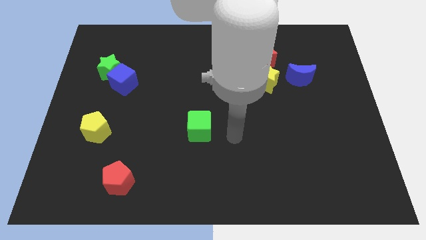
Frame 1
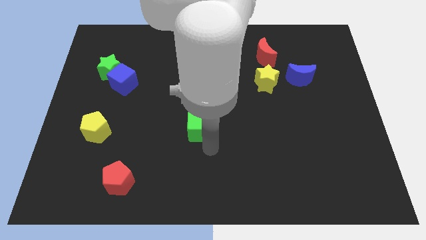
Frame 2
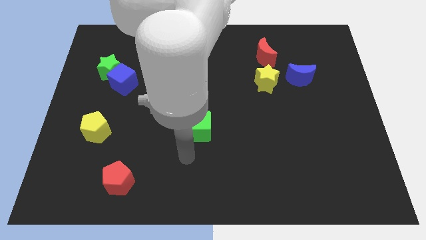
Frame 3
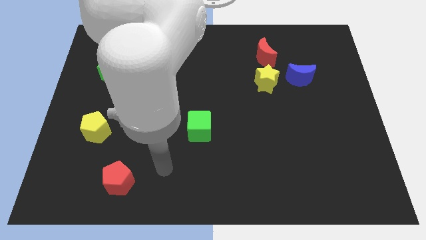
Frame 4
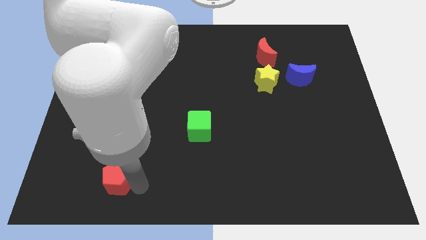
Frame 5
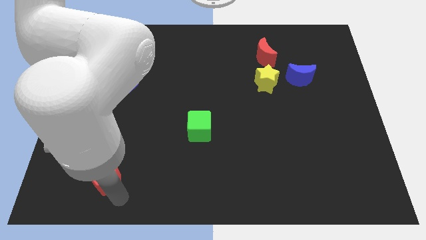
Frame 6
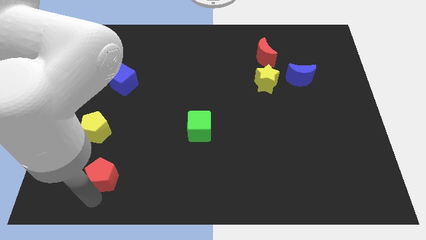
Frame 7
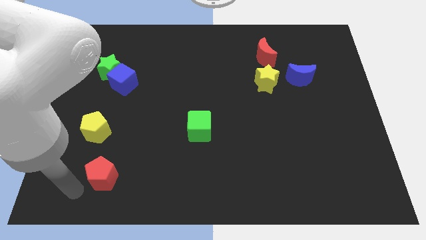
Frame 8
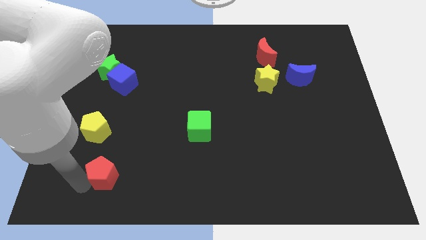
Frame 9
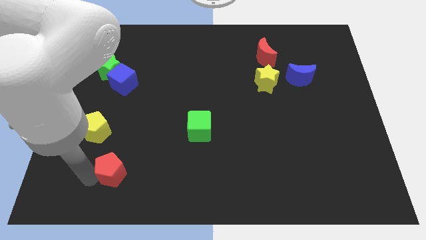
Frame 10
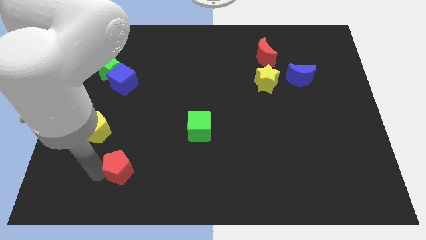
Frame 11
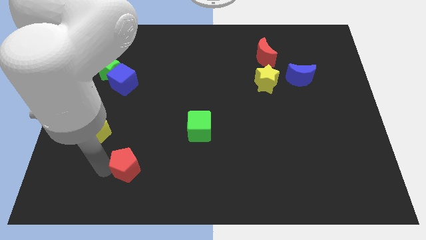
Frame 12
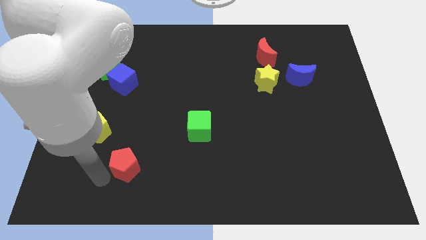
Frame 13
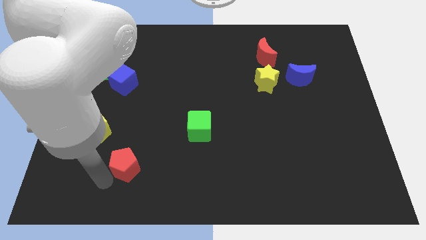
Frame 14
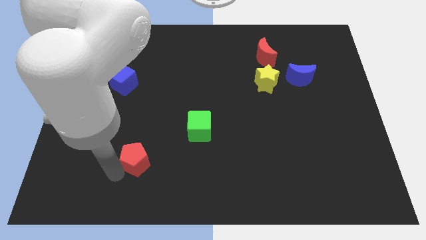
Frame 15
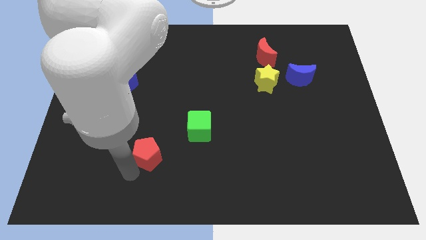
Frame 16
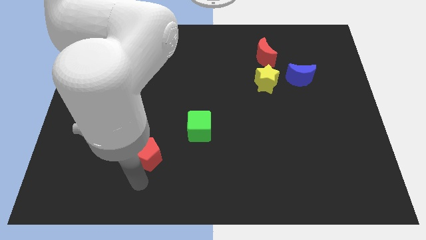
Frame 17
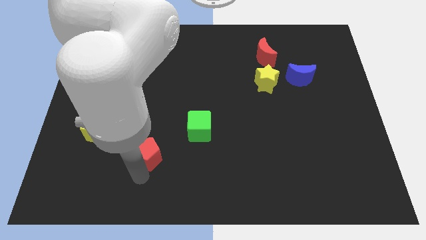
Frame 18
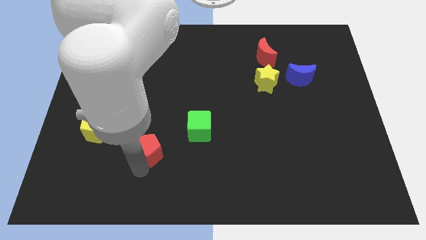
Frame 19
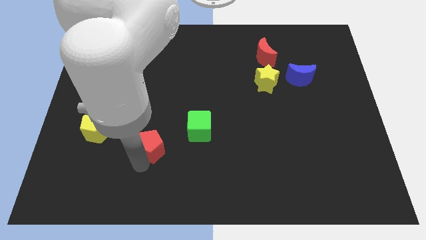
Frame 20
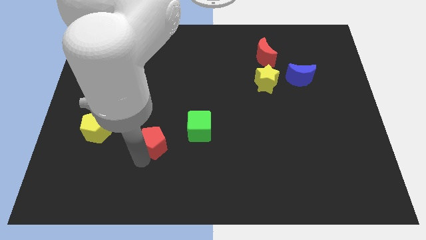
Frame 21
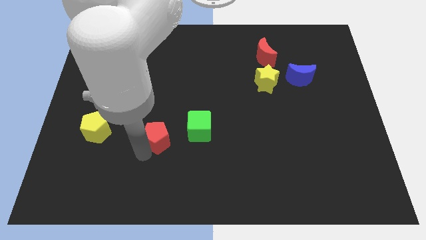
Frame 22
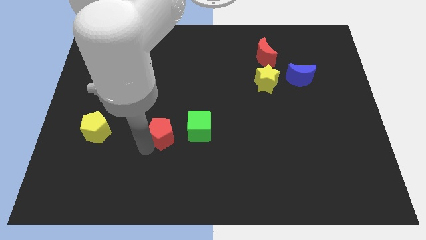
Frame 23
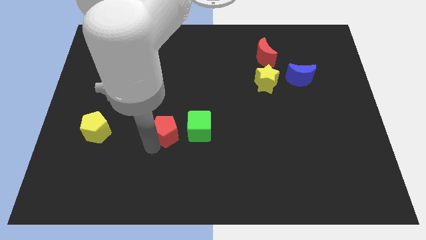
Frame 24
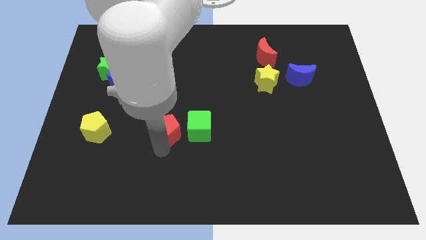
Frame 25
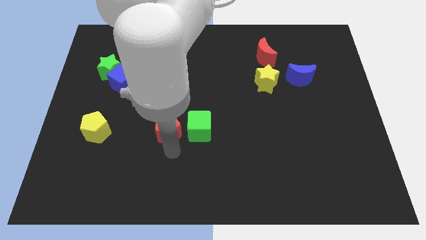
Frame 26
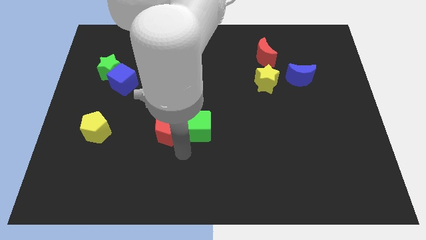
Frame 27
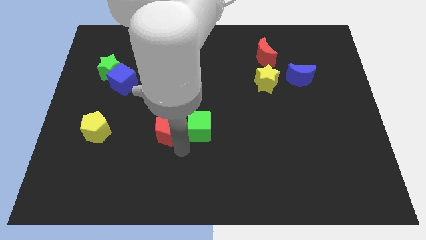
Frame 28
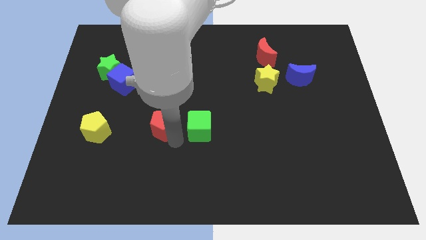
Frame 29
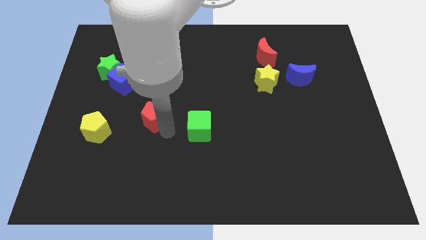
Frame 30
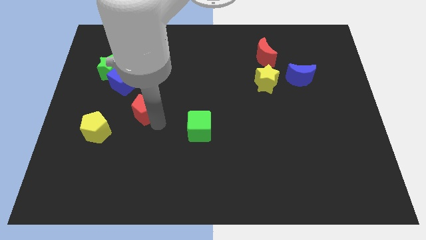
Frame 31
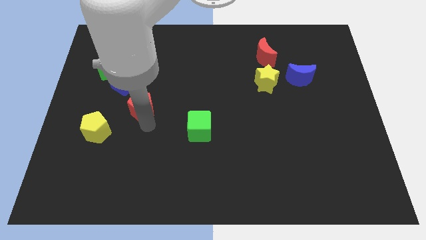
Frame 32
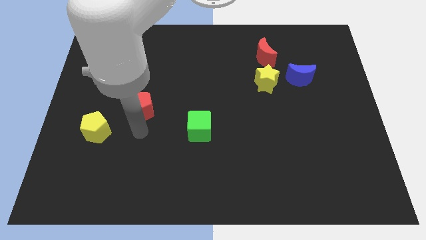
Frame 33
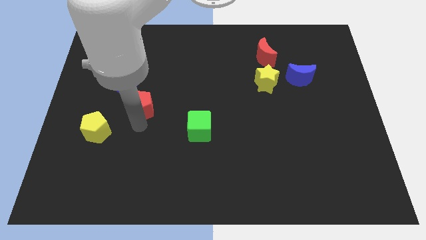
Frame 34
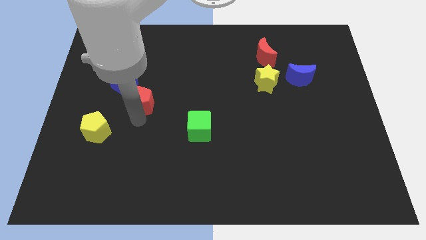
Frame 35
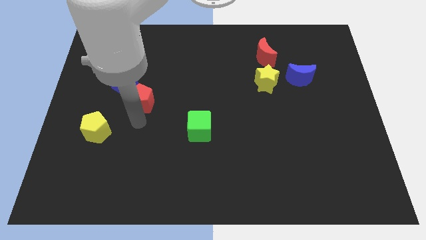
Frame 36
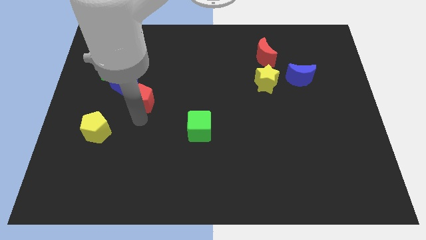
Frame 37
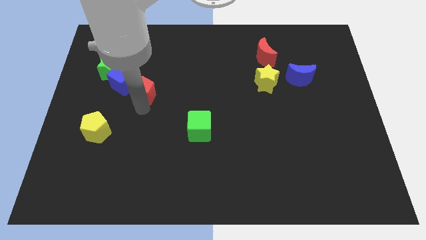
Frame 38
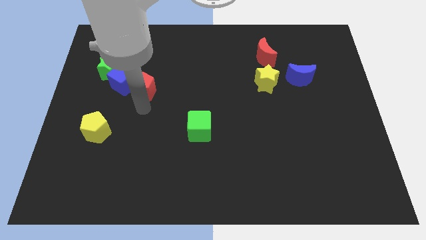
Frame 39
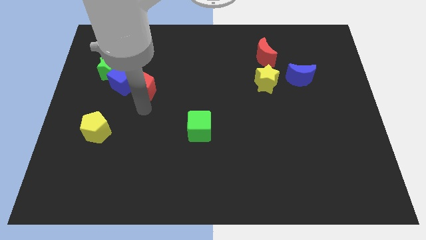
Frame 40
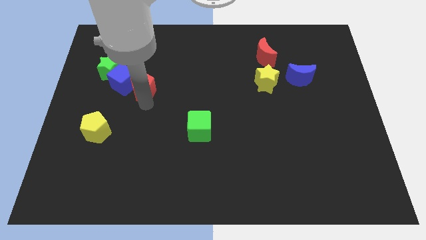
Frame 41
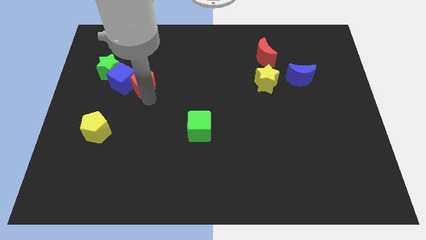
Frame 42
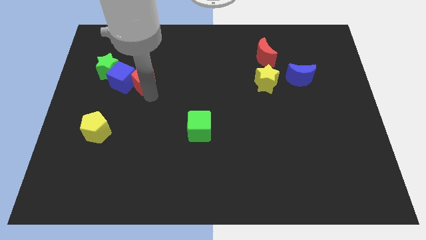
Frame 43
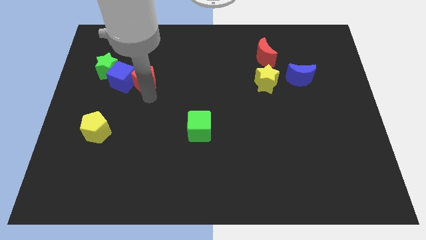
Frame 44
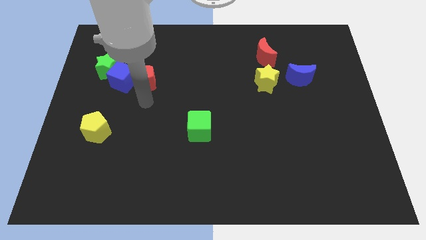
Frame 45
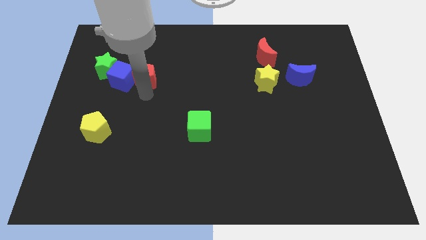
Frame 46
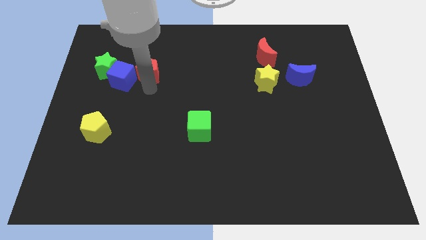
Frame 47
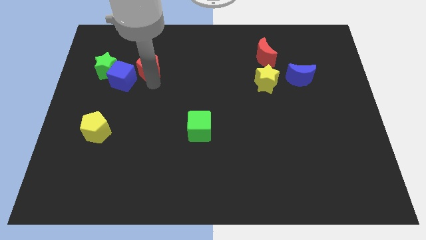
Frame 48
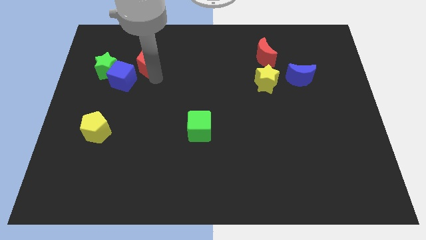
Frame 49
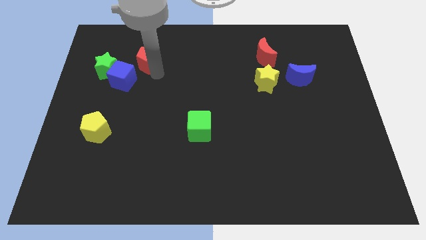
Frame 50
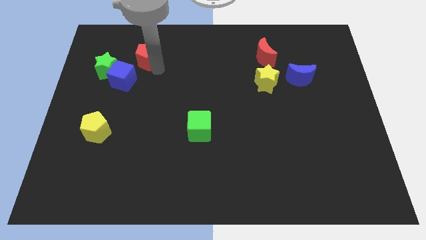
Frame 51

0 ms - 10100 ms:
put the red pentagon to the top right of the green star

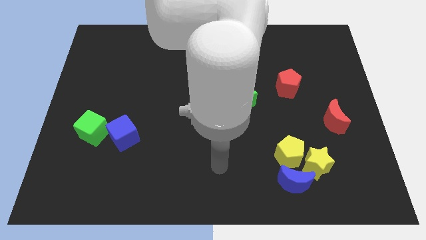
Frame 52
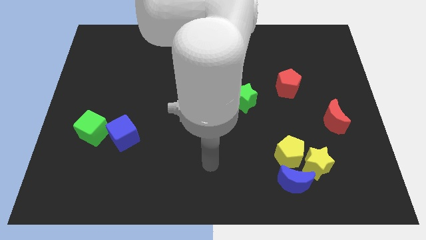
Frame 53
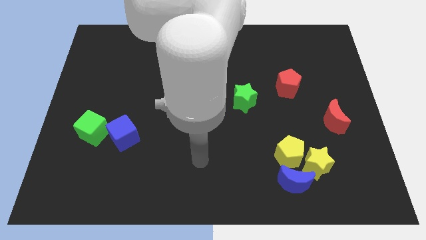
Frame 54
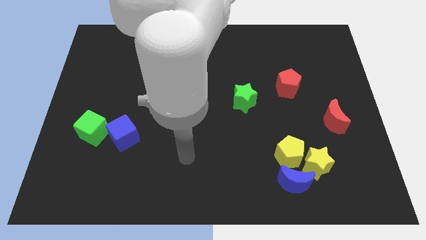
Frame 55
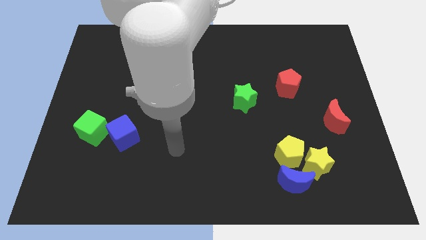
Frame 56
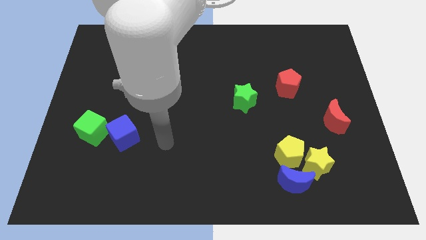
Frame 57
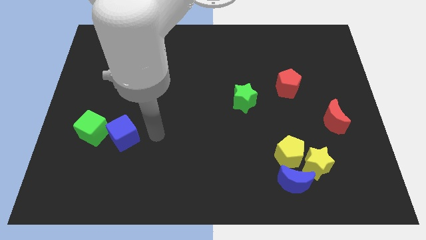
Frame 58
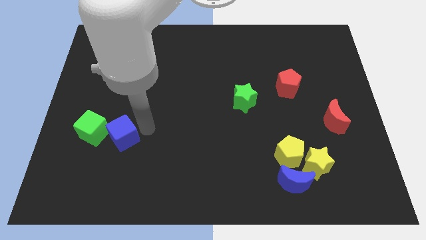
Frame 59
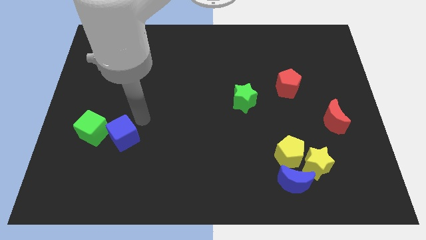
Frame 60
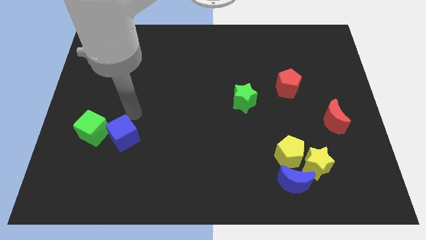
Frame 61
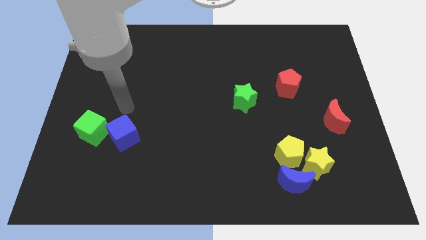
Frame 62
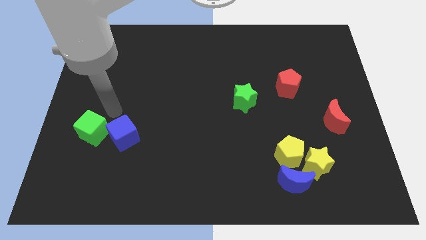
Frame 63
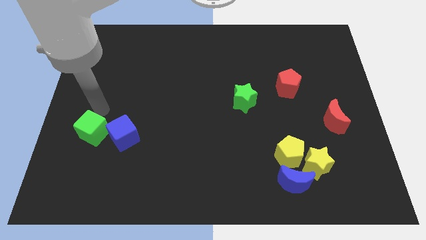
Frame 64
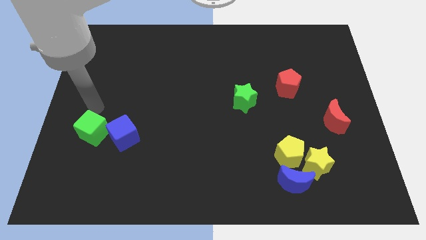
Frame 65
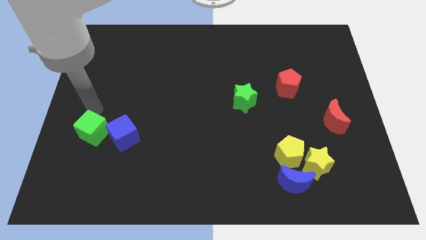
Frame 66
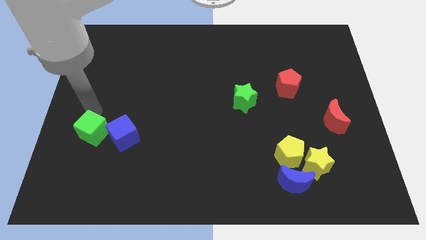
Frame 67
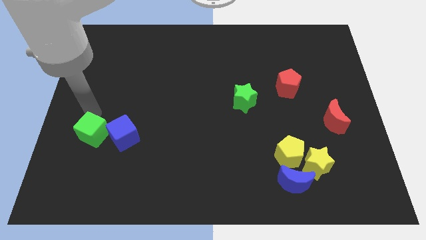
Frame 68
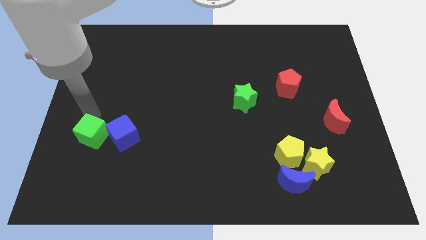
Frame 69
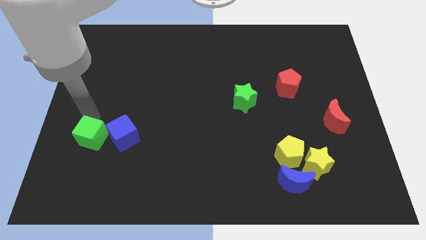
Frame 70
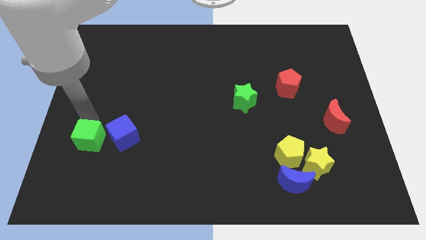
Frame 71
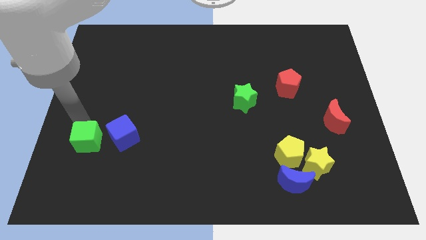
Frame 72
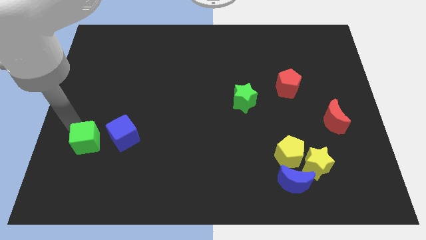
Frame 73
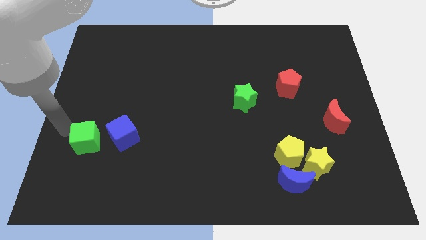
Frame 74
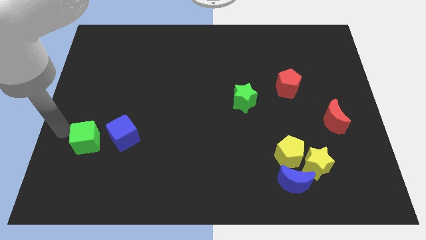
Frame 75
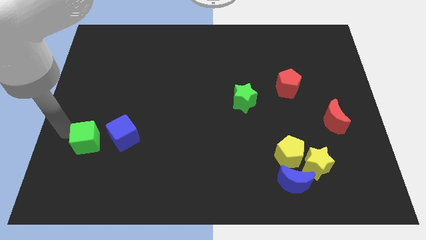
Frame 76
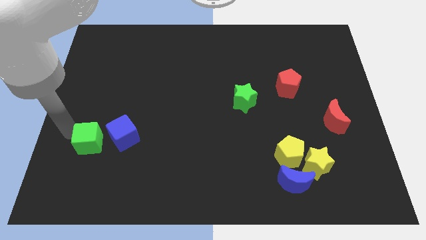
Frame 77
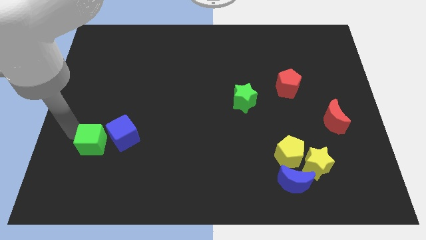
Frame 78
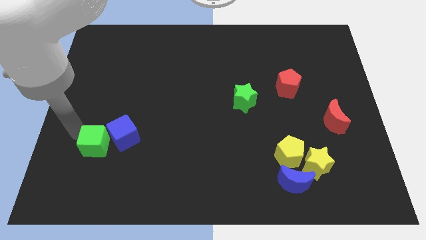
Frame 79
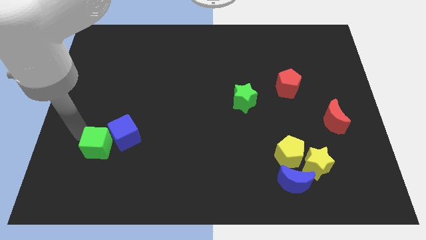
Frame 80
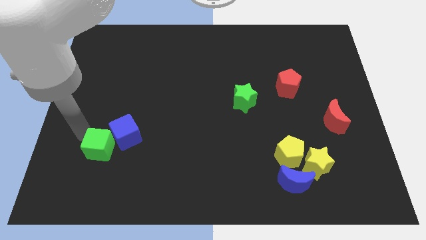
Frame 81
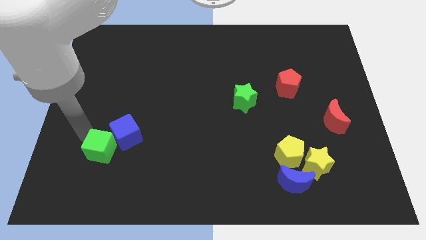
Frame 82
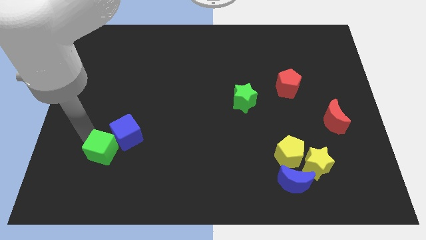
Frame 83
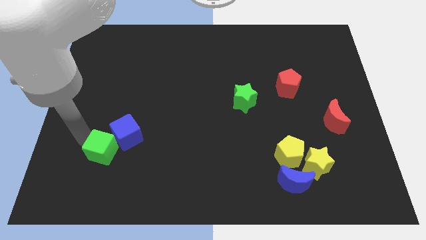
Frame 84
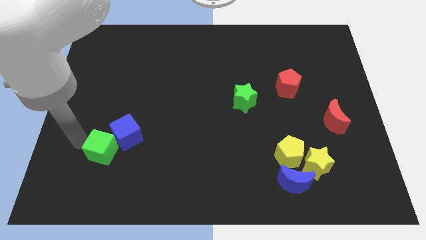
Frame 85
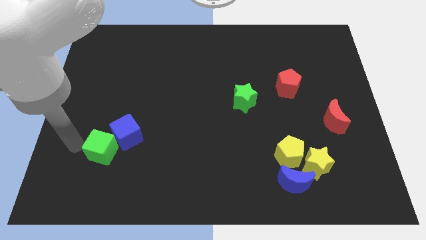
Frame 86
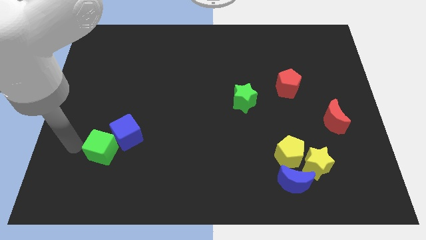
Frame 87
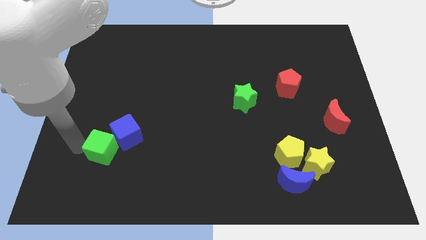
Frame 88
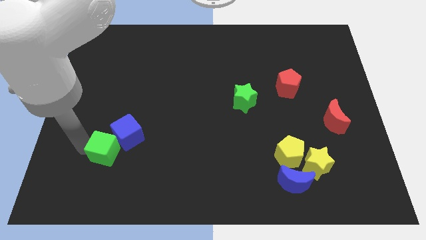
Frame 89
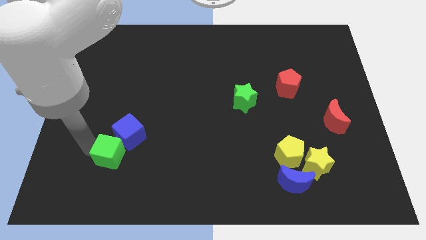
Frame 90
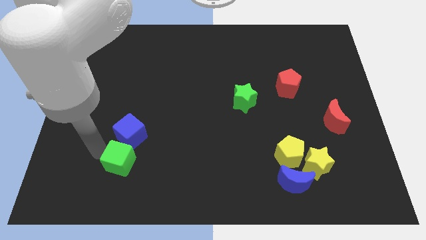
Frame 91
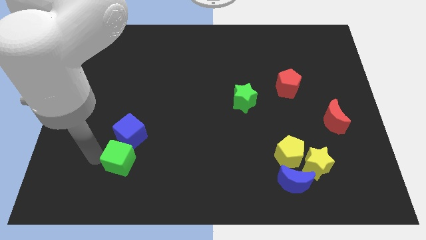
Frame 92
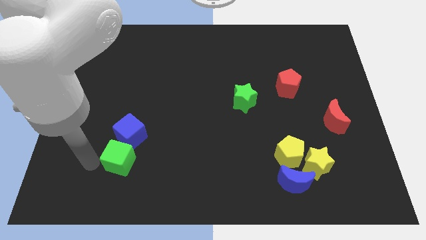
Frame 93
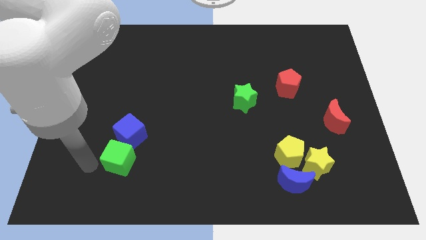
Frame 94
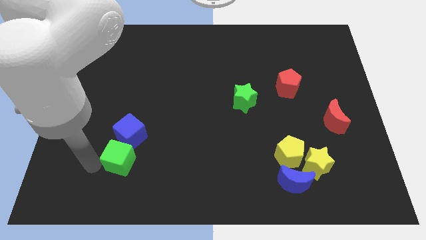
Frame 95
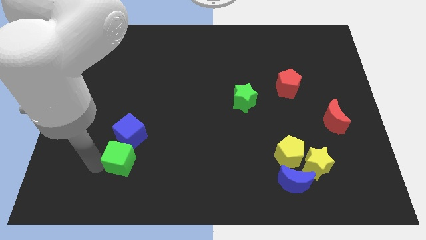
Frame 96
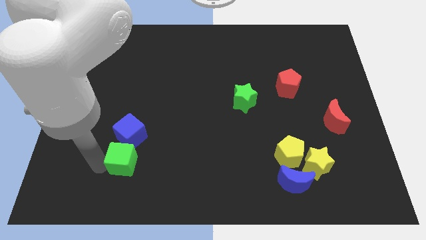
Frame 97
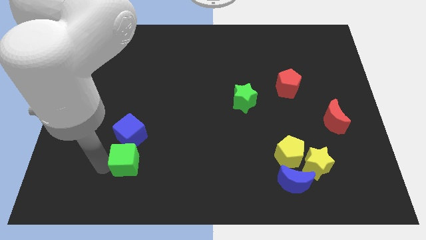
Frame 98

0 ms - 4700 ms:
push the green cube diagonally down and to the right of the blue cube
